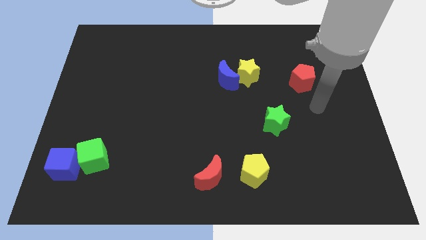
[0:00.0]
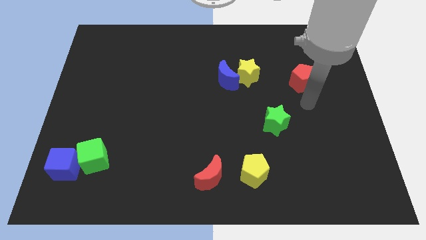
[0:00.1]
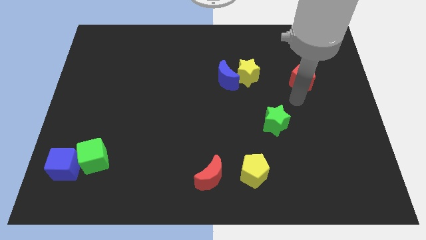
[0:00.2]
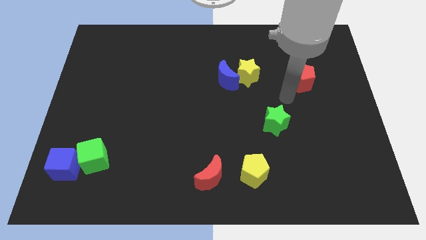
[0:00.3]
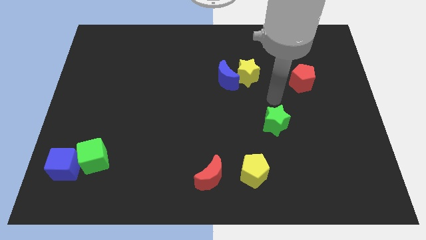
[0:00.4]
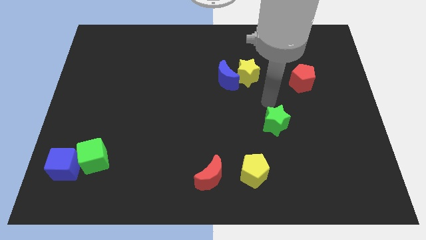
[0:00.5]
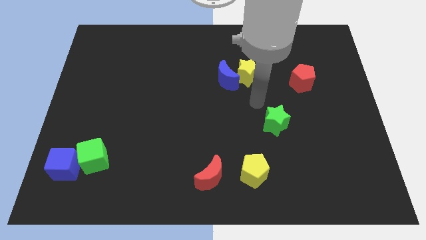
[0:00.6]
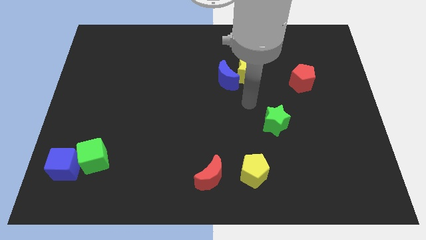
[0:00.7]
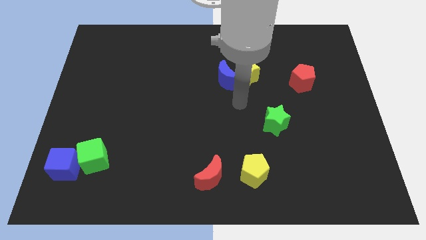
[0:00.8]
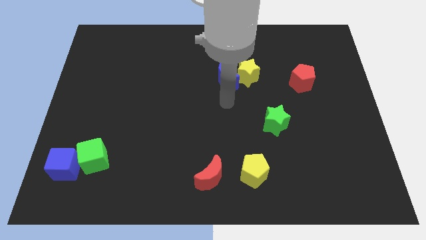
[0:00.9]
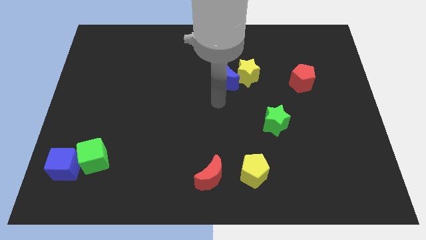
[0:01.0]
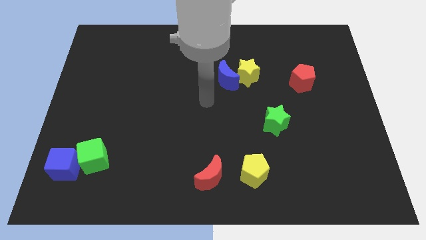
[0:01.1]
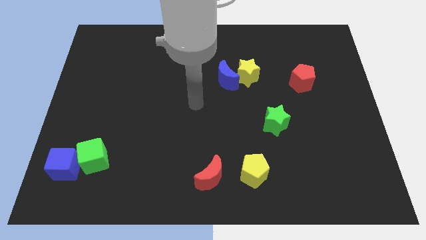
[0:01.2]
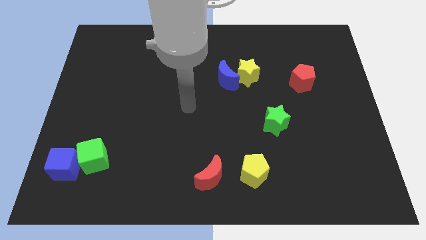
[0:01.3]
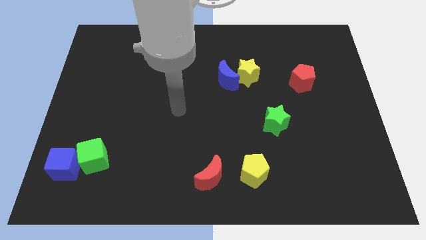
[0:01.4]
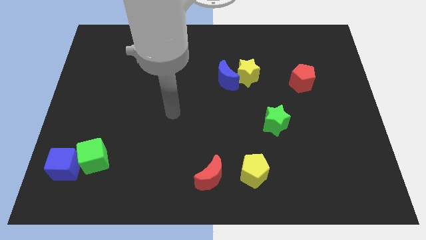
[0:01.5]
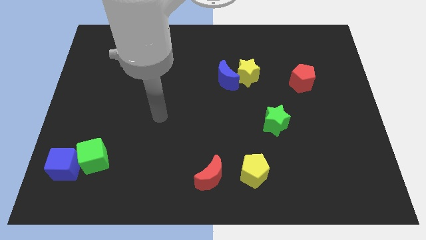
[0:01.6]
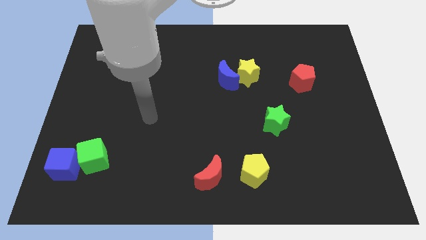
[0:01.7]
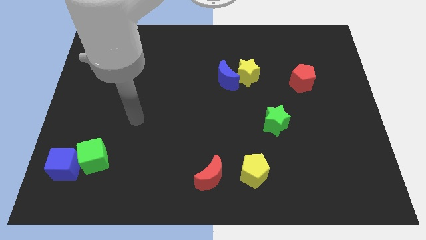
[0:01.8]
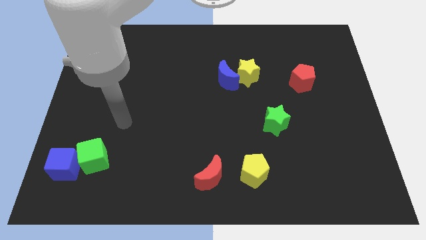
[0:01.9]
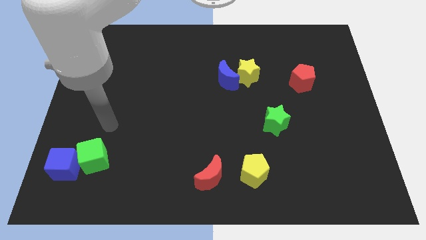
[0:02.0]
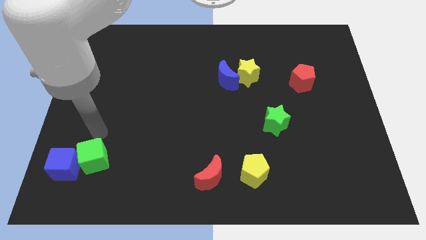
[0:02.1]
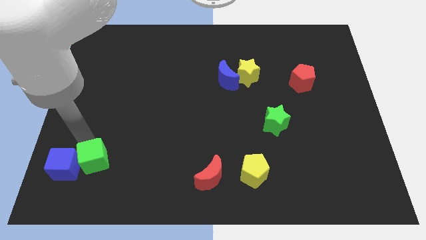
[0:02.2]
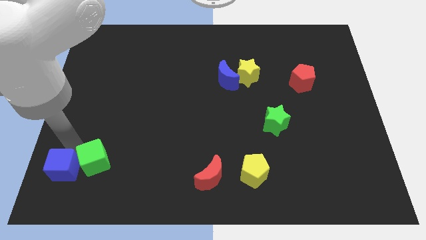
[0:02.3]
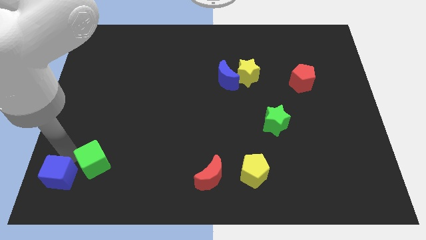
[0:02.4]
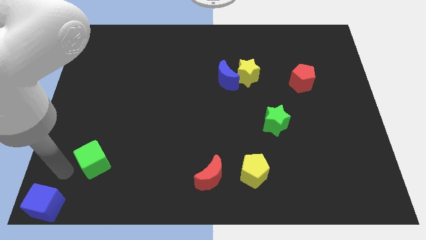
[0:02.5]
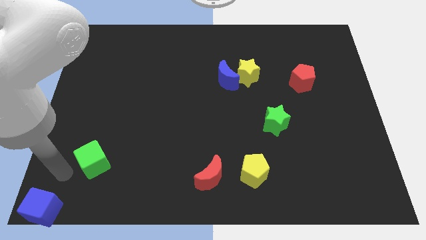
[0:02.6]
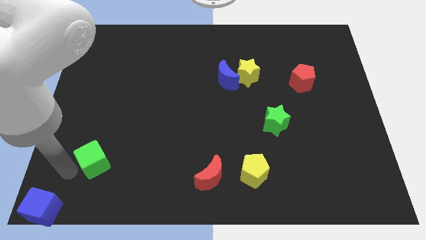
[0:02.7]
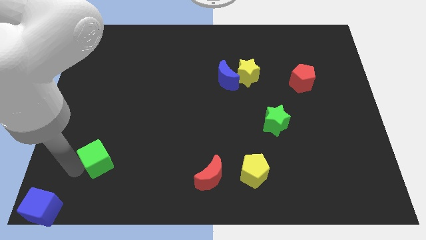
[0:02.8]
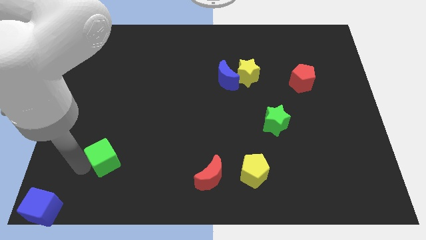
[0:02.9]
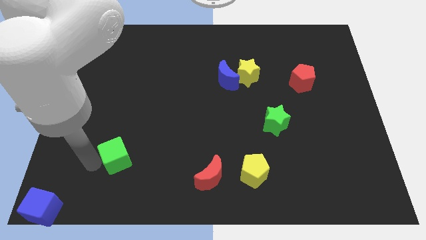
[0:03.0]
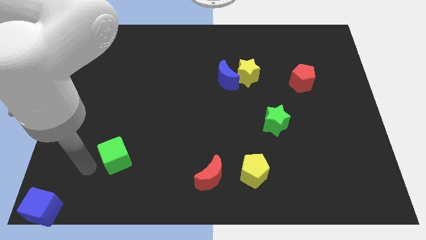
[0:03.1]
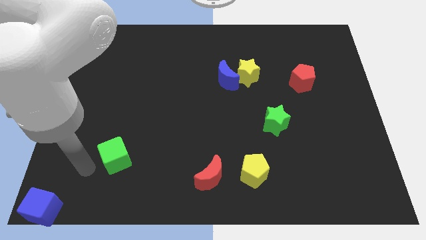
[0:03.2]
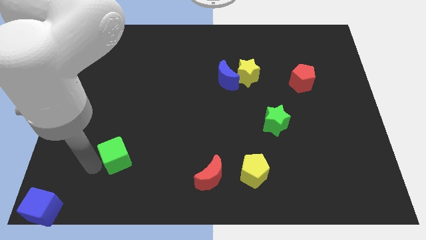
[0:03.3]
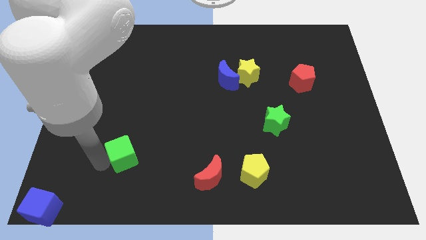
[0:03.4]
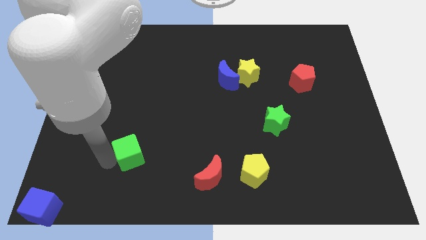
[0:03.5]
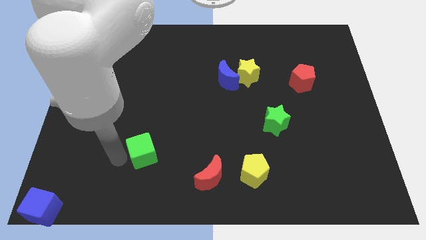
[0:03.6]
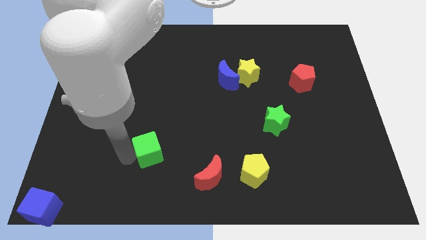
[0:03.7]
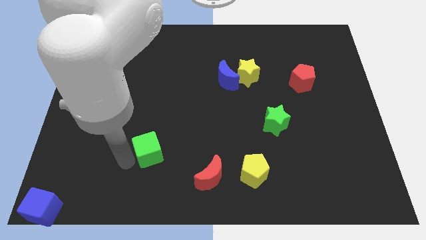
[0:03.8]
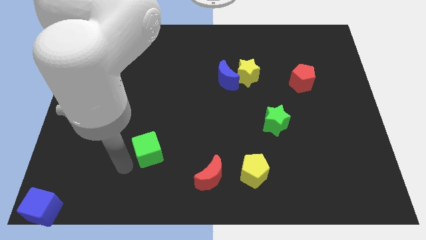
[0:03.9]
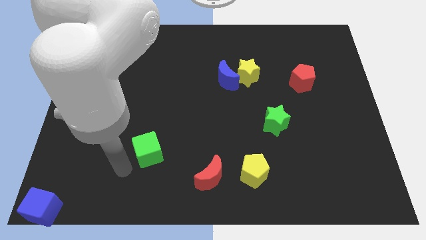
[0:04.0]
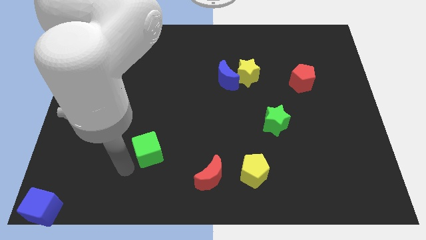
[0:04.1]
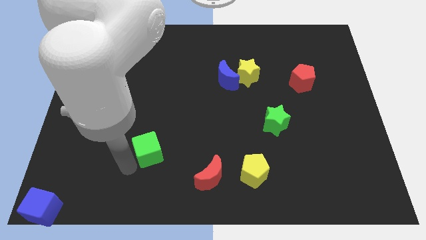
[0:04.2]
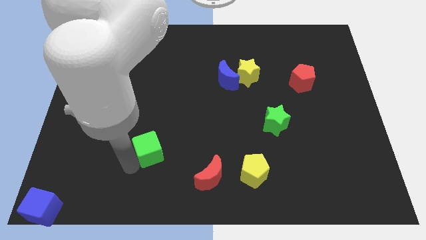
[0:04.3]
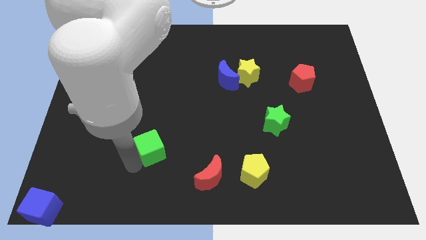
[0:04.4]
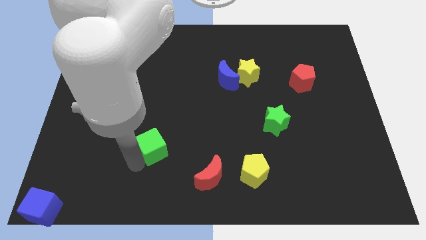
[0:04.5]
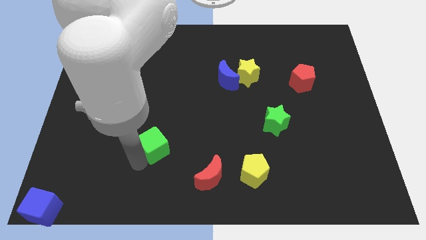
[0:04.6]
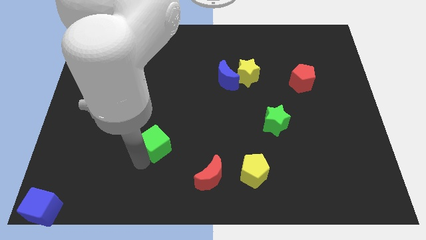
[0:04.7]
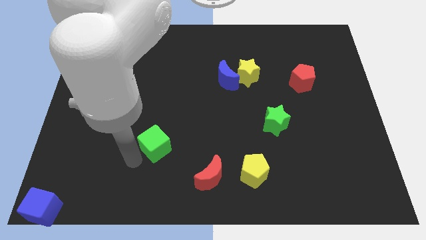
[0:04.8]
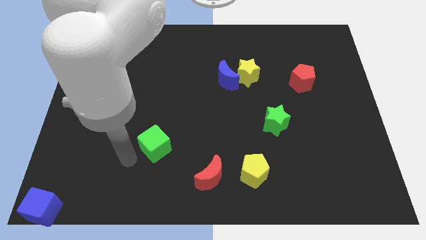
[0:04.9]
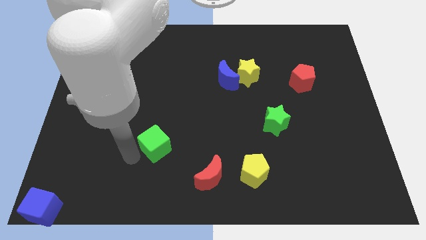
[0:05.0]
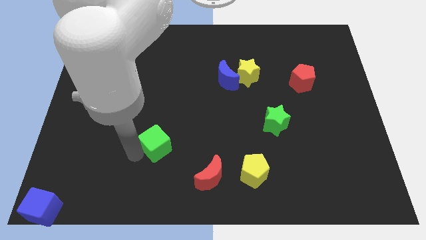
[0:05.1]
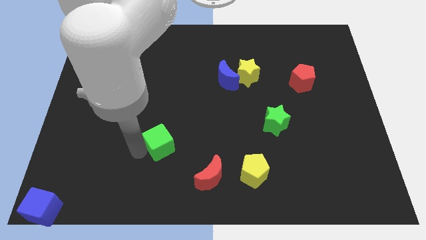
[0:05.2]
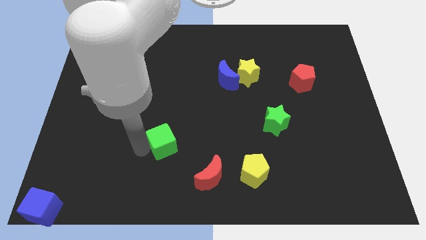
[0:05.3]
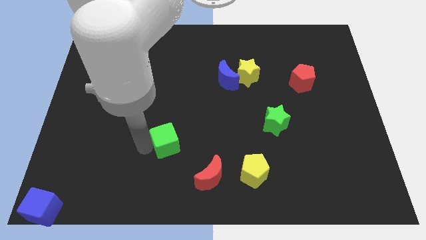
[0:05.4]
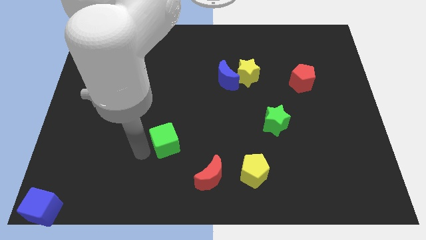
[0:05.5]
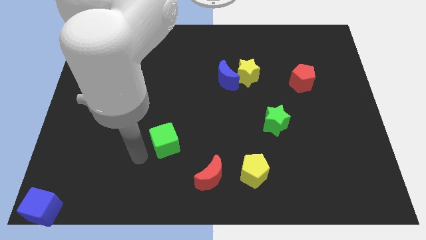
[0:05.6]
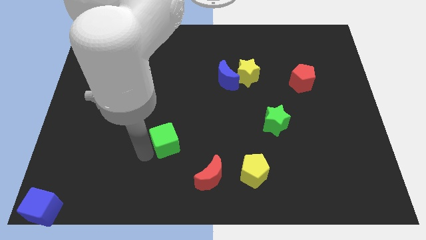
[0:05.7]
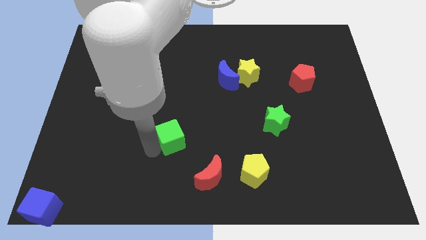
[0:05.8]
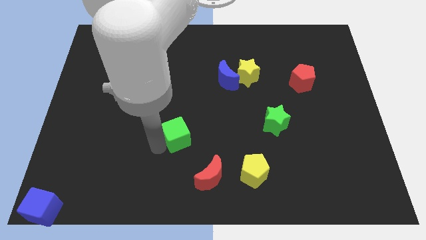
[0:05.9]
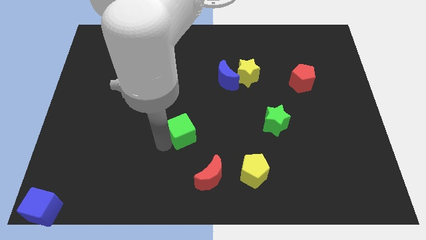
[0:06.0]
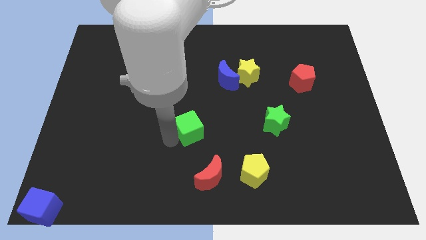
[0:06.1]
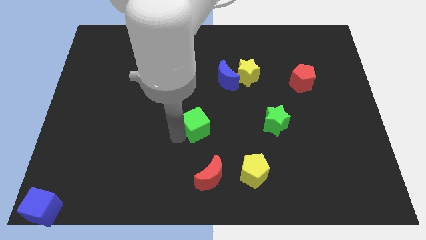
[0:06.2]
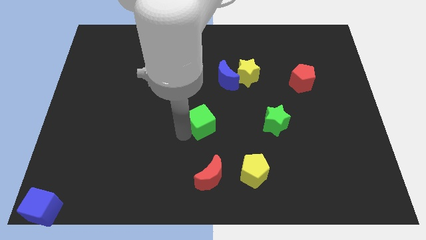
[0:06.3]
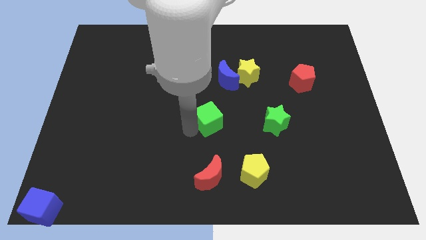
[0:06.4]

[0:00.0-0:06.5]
push the green cube to the bottom of the blue moon
